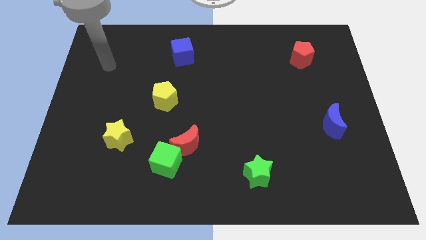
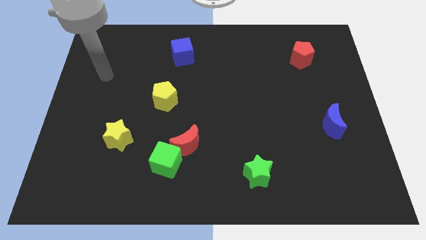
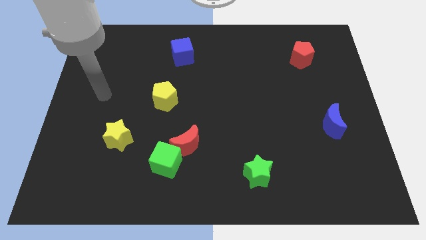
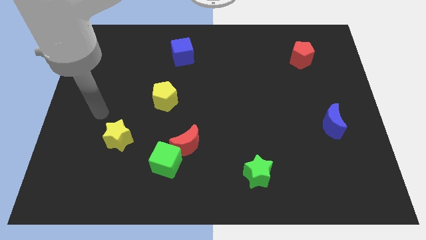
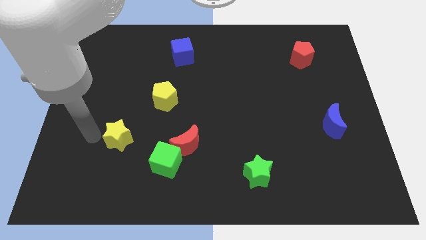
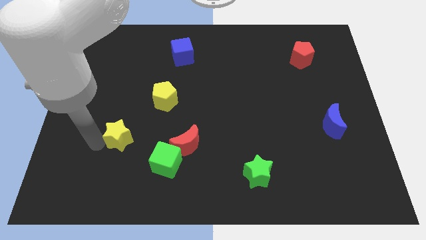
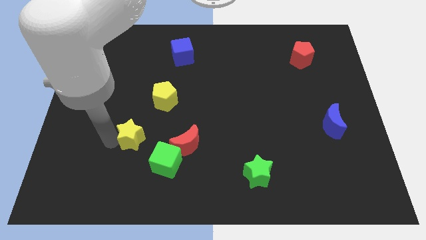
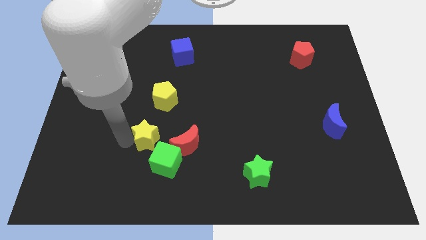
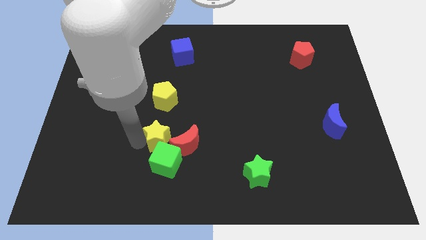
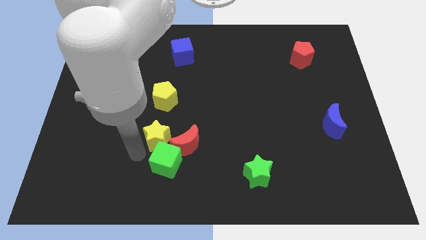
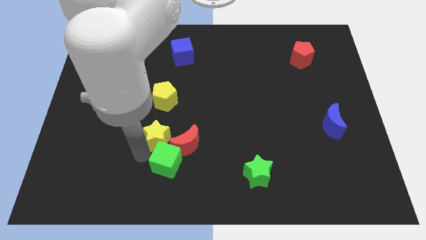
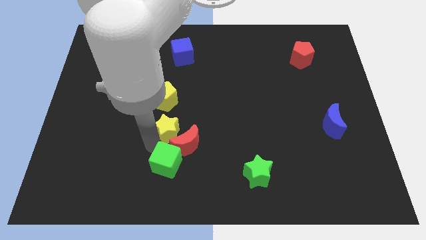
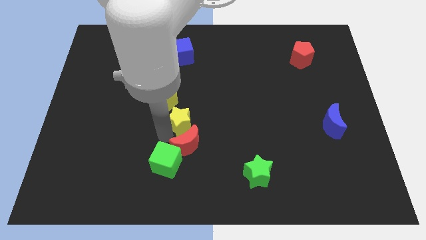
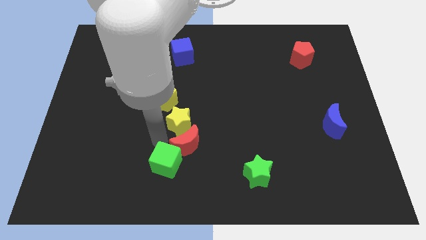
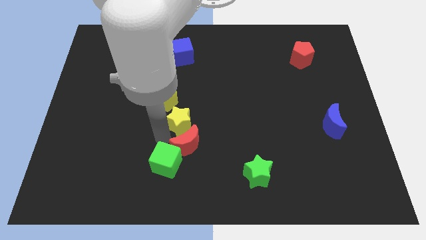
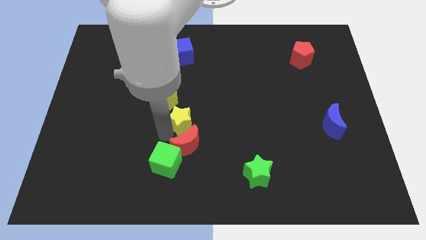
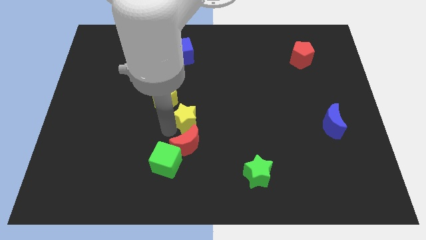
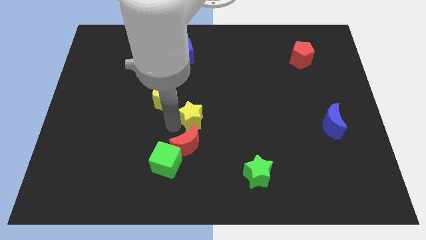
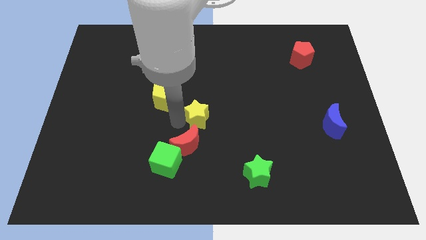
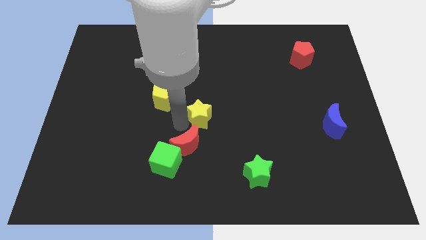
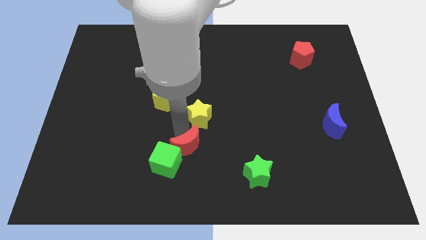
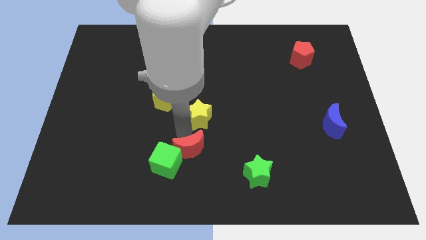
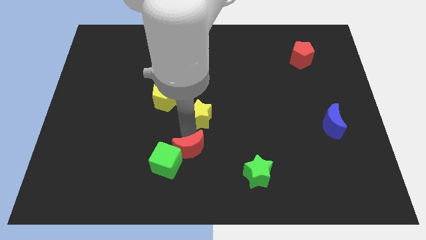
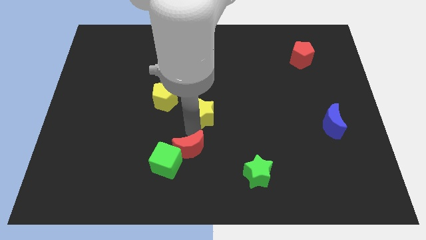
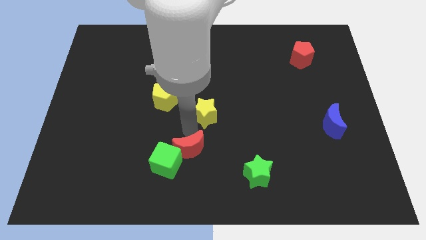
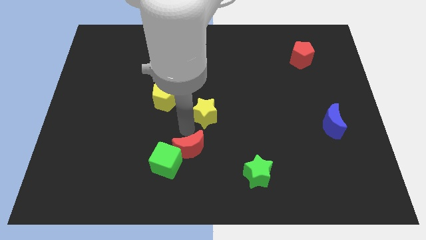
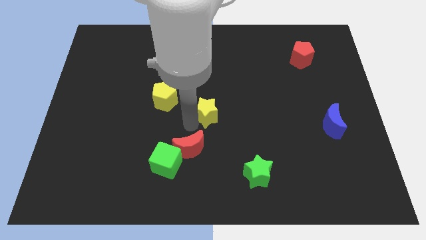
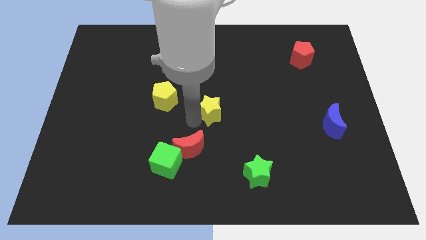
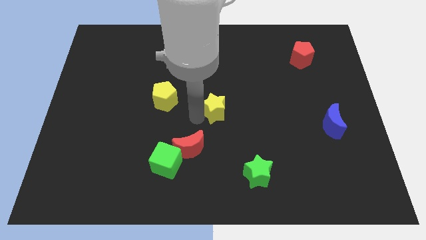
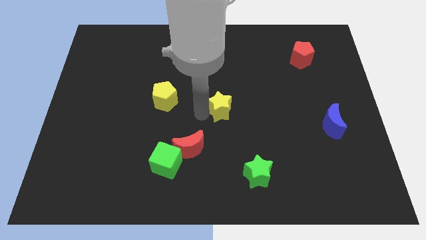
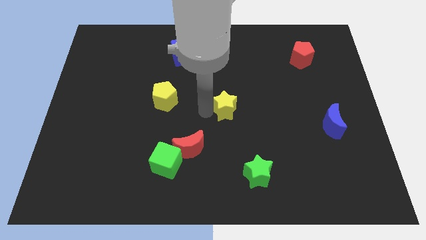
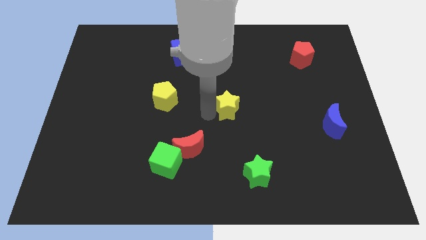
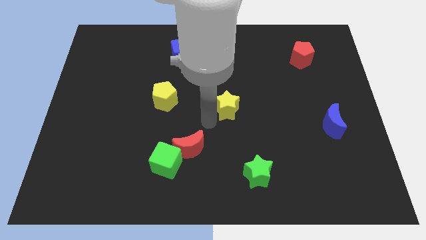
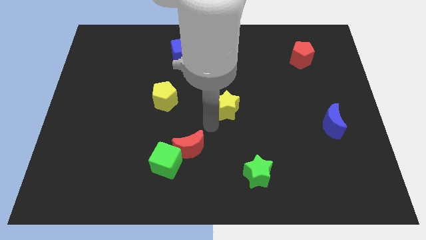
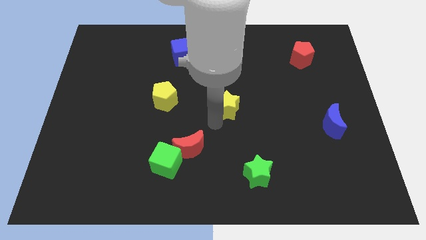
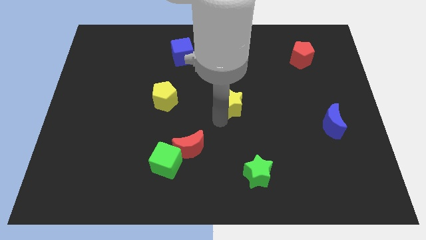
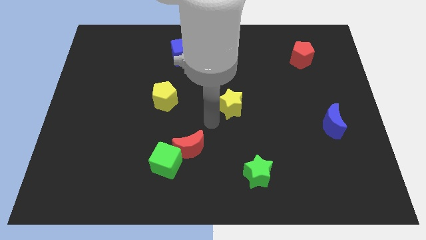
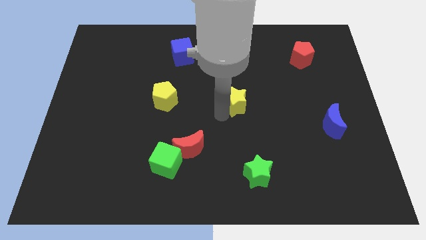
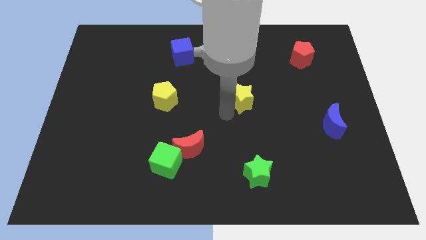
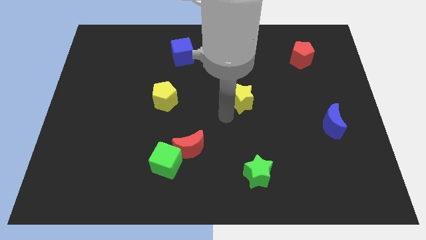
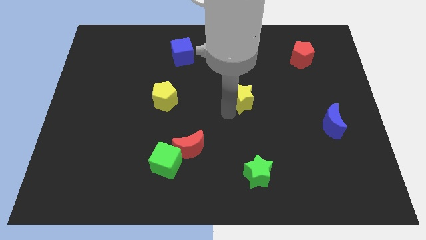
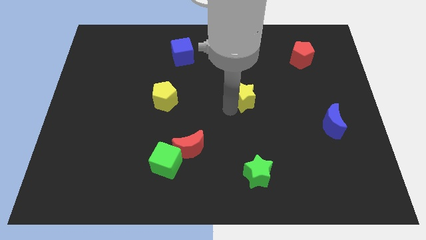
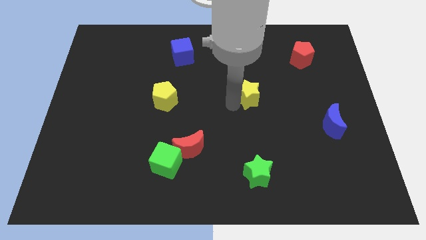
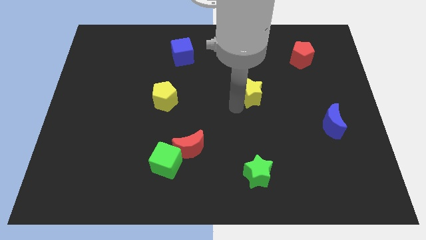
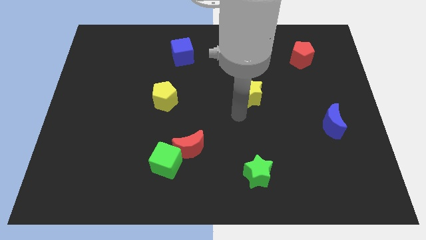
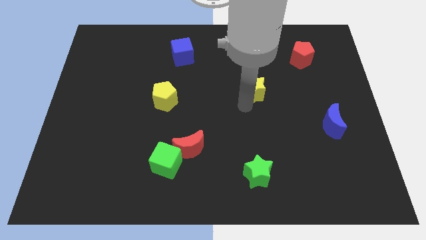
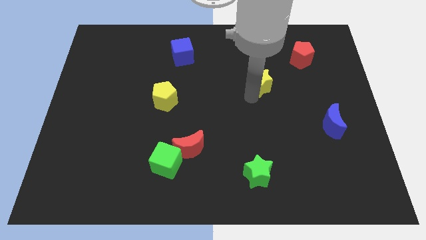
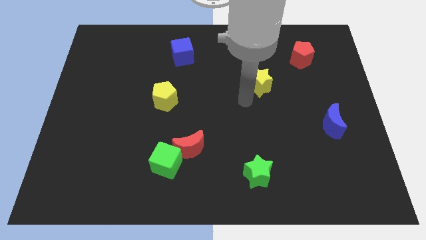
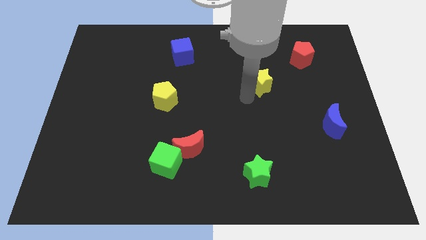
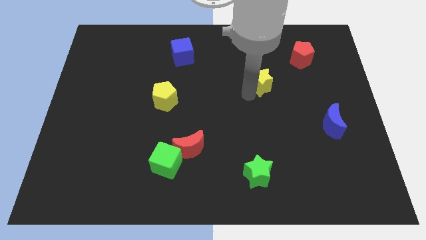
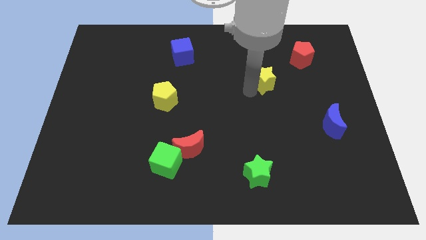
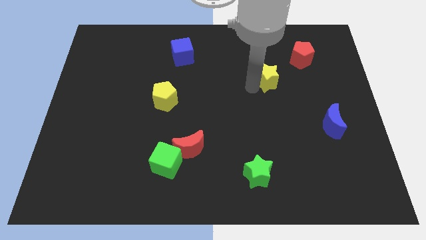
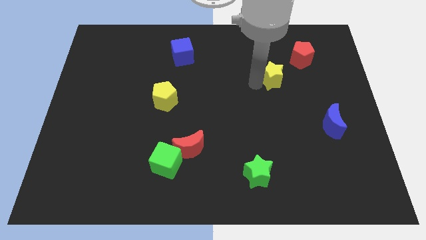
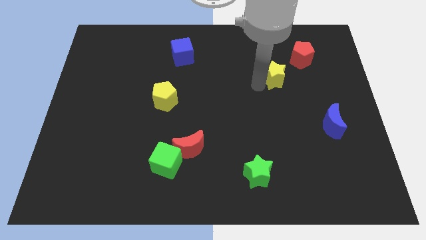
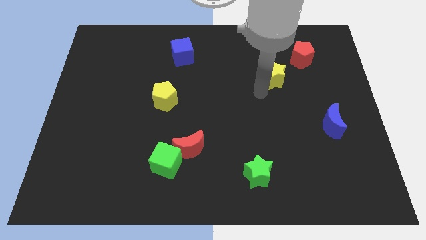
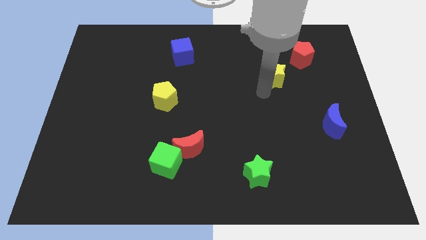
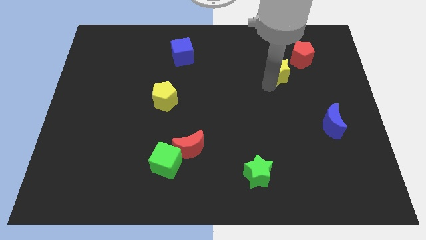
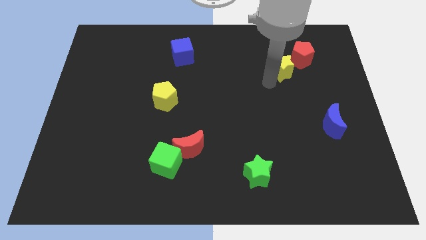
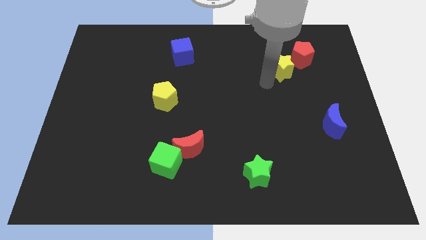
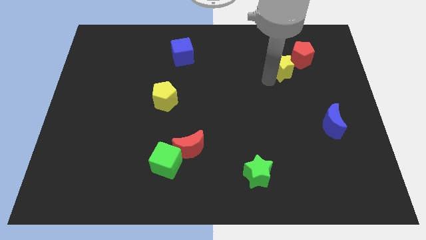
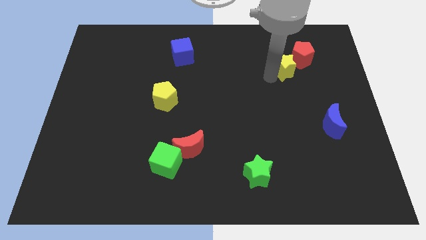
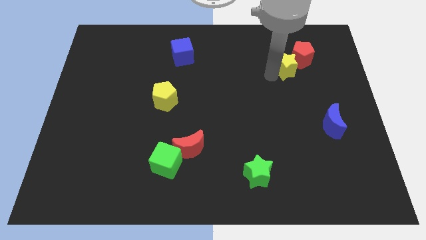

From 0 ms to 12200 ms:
put the yellow star to the red pentagon

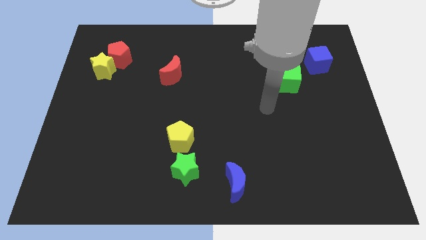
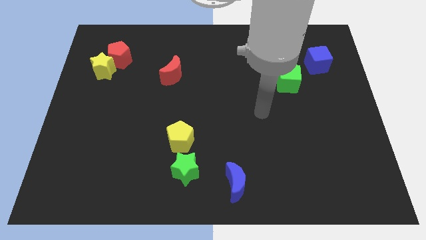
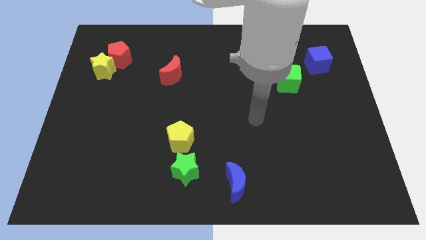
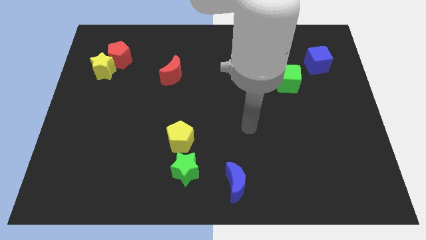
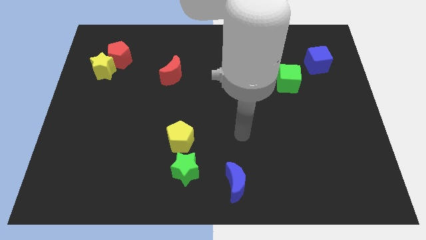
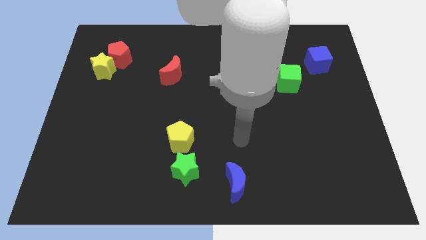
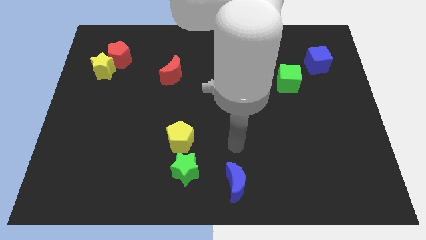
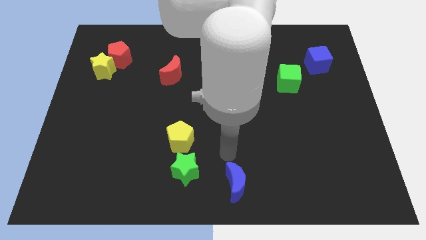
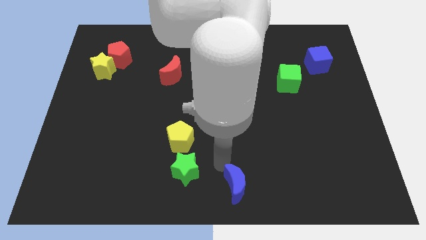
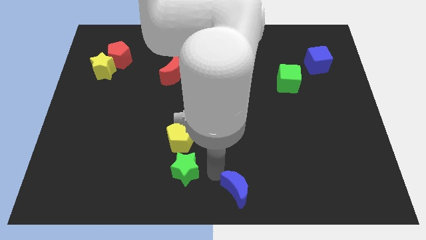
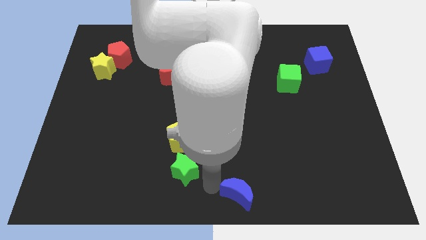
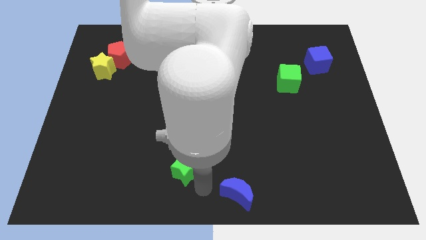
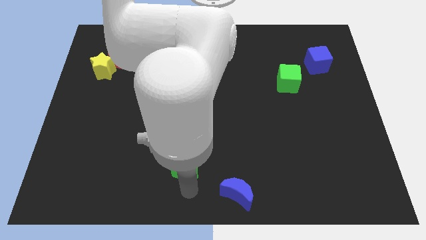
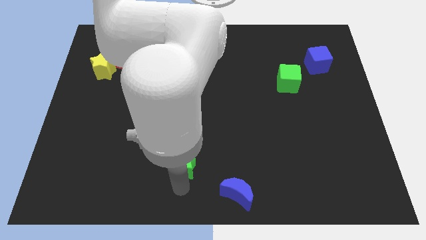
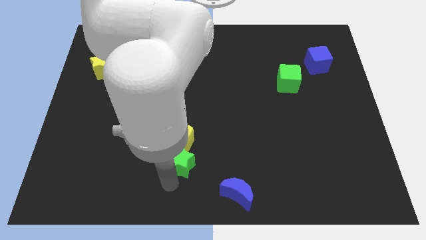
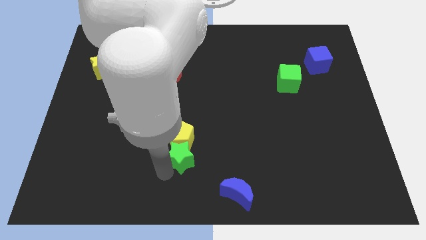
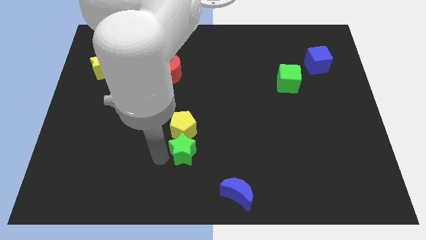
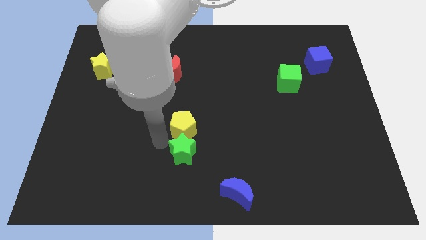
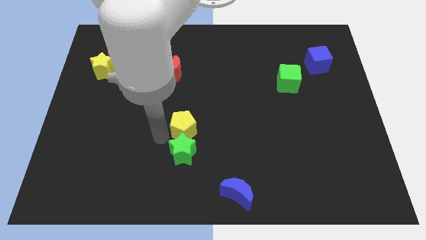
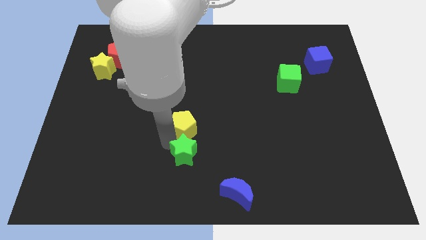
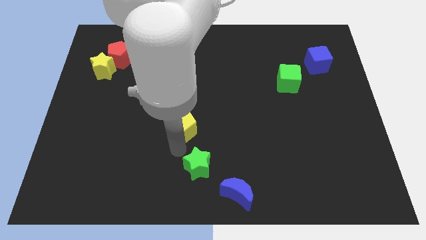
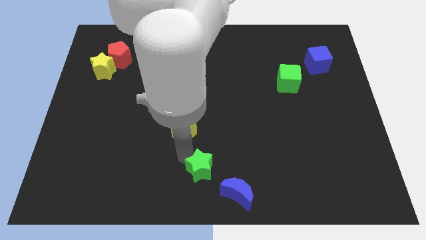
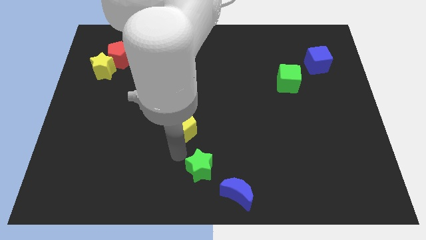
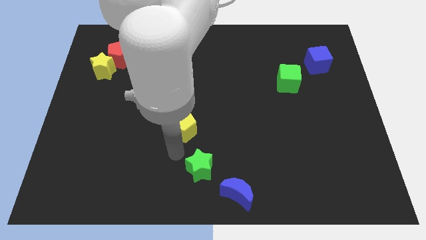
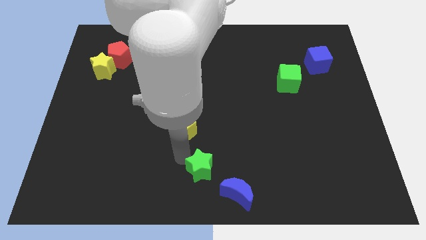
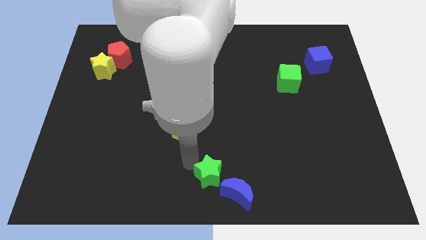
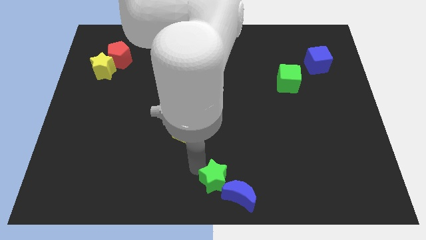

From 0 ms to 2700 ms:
put the green star towards the blue moon
